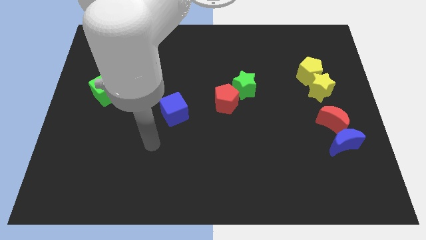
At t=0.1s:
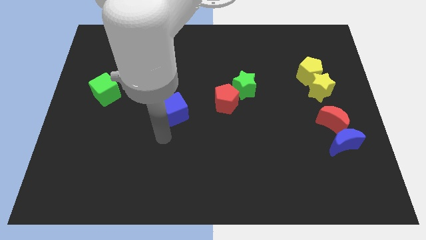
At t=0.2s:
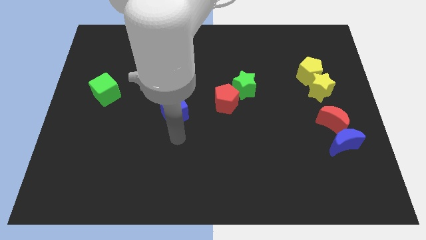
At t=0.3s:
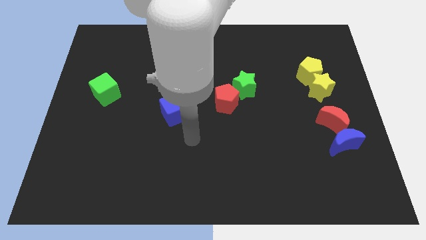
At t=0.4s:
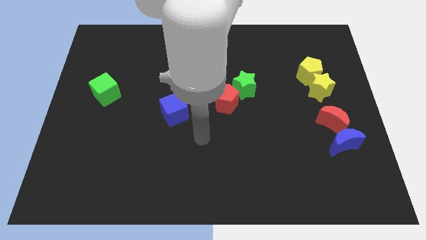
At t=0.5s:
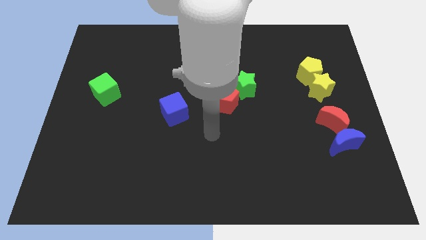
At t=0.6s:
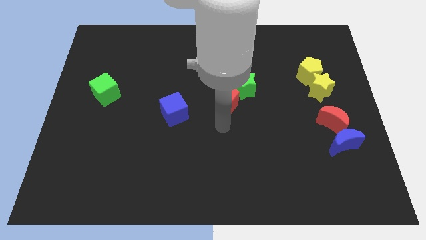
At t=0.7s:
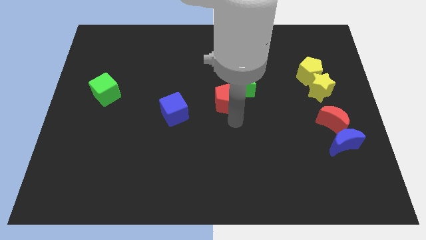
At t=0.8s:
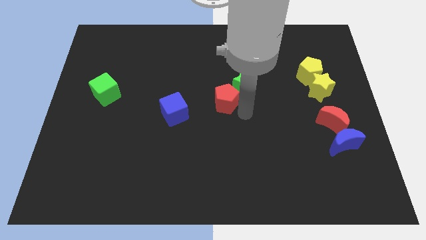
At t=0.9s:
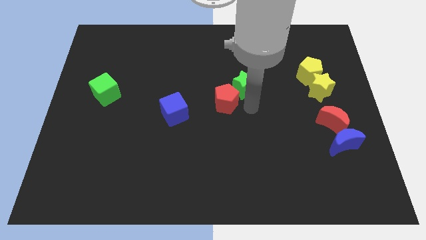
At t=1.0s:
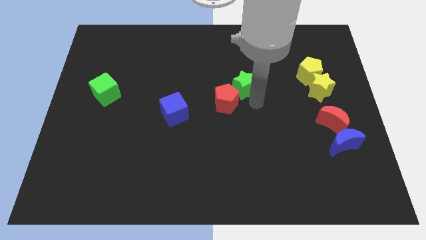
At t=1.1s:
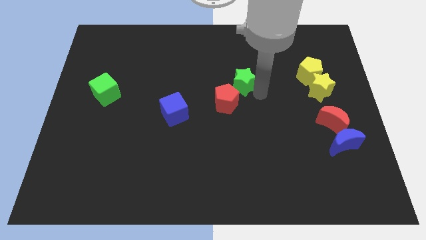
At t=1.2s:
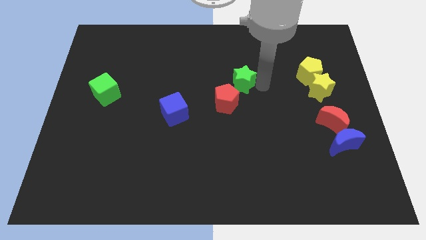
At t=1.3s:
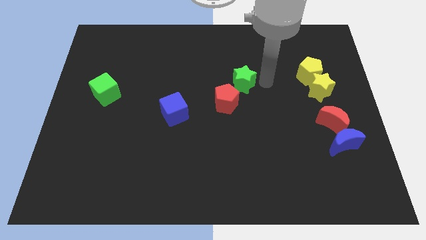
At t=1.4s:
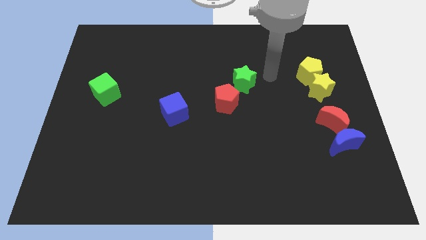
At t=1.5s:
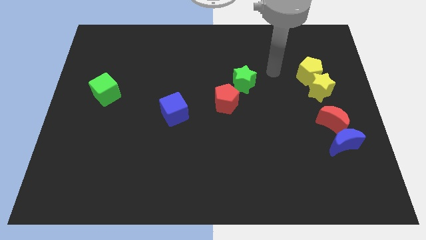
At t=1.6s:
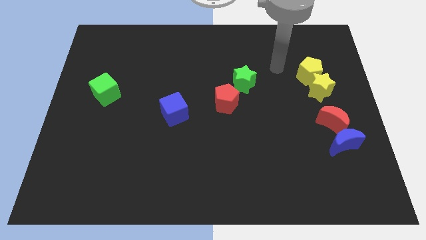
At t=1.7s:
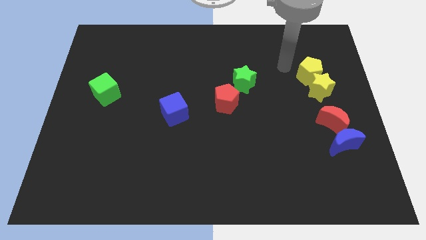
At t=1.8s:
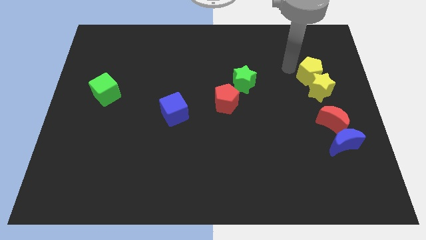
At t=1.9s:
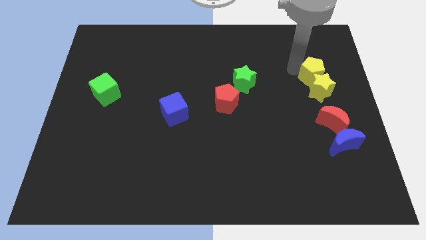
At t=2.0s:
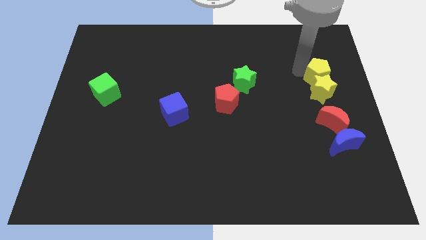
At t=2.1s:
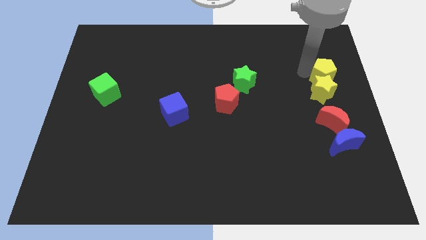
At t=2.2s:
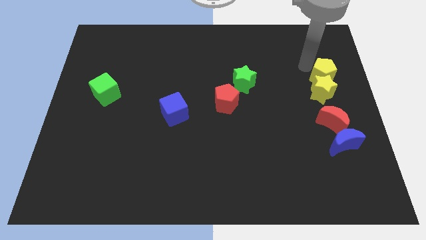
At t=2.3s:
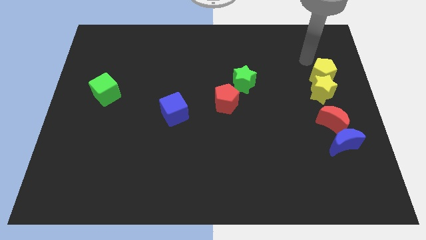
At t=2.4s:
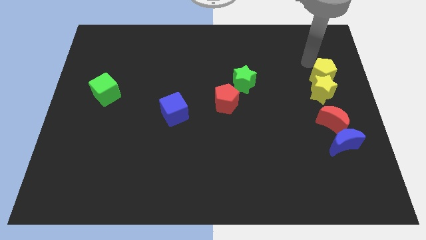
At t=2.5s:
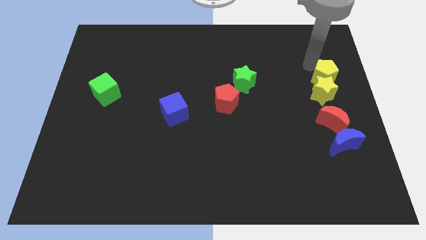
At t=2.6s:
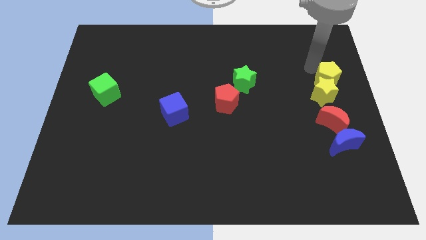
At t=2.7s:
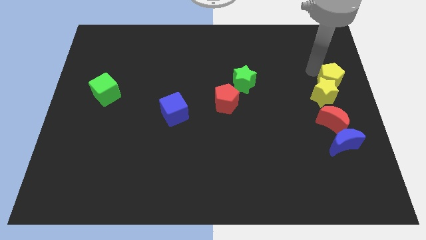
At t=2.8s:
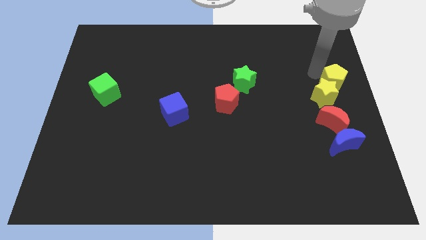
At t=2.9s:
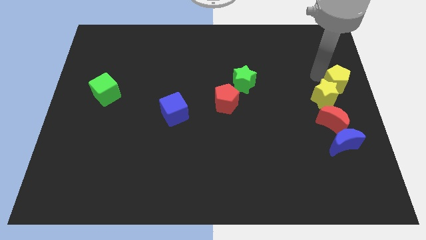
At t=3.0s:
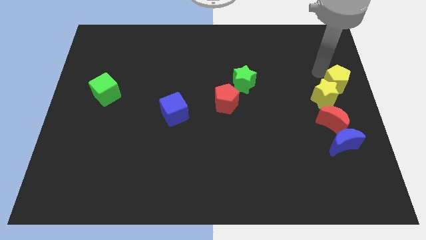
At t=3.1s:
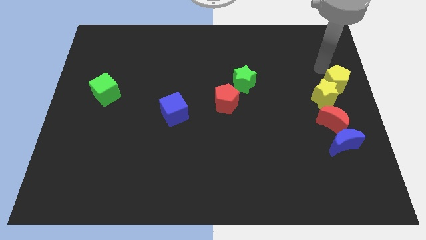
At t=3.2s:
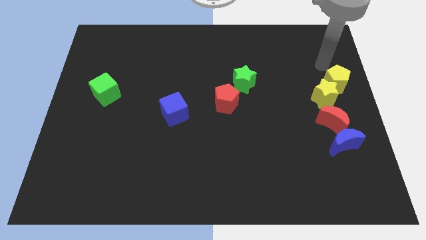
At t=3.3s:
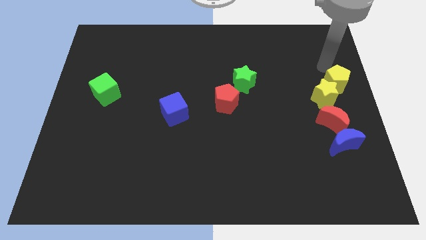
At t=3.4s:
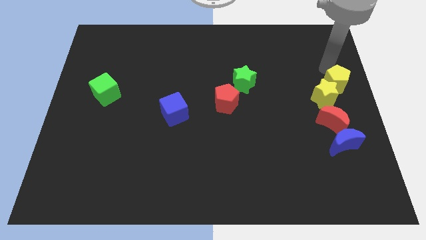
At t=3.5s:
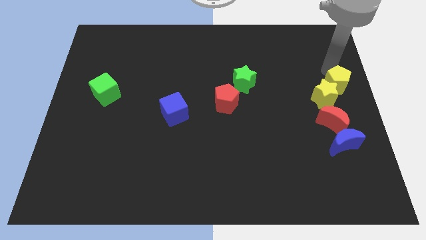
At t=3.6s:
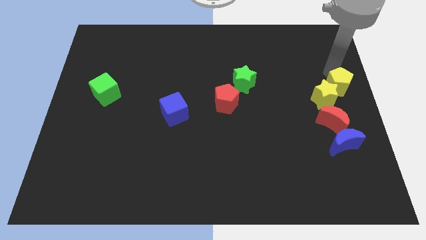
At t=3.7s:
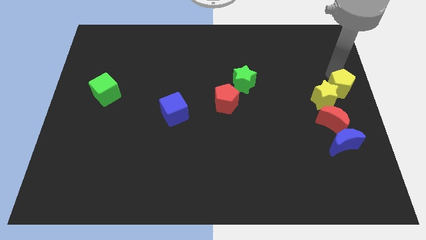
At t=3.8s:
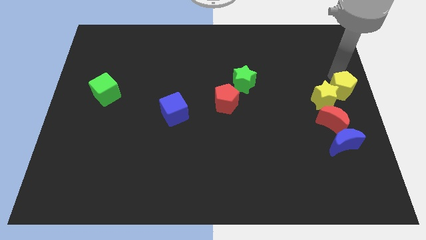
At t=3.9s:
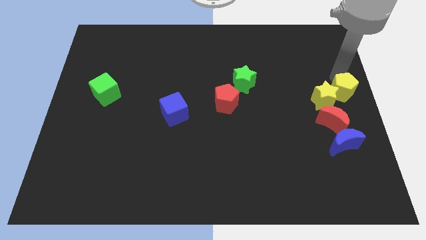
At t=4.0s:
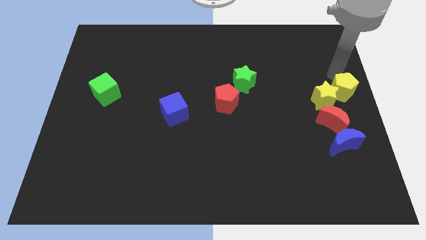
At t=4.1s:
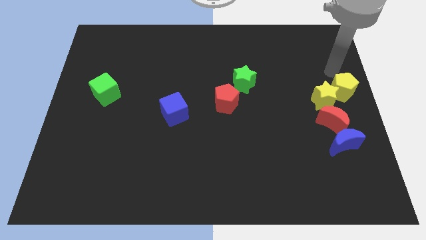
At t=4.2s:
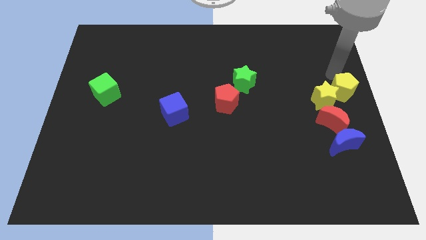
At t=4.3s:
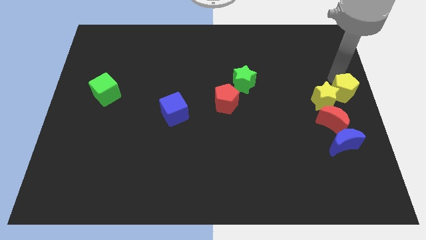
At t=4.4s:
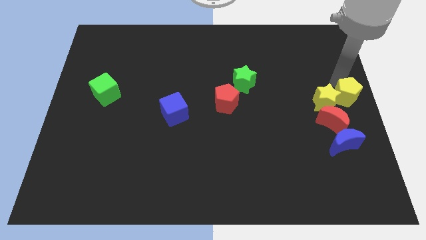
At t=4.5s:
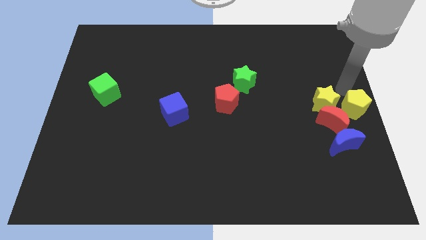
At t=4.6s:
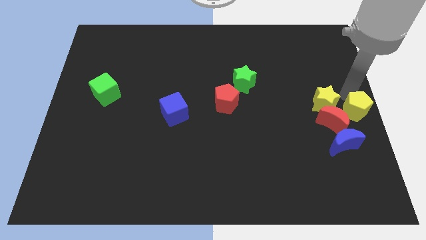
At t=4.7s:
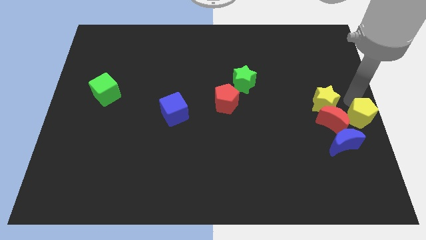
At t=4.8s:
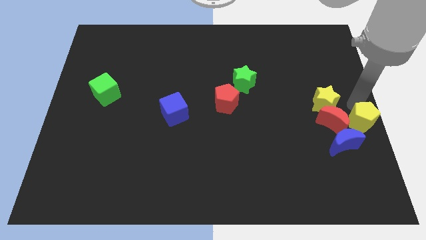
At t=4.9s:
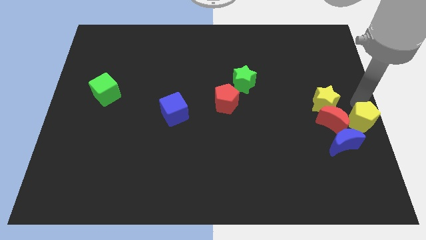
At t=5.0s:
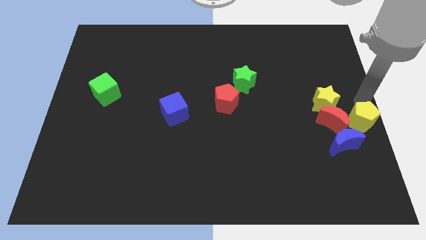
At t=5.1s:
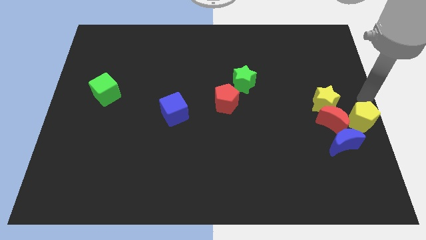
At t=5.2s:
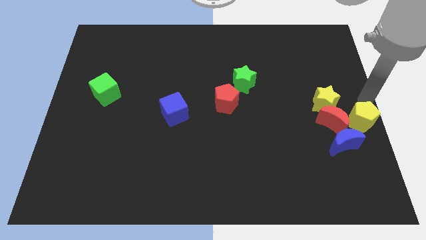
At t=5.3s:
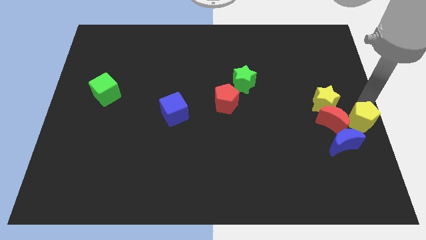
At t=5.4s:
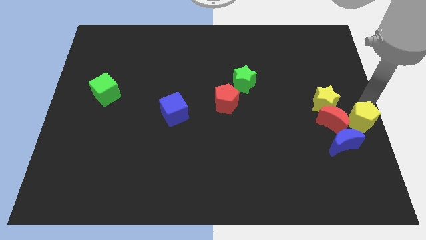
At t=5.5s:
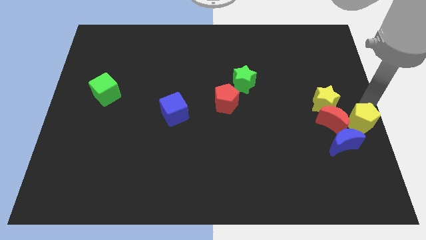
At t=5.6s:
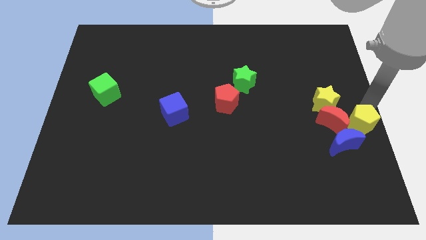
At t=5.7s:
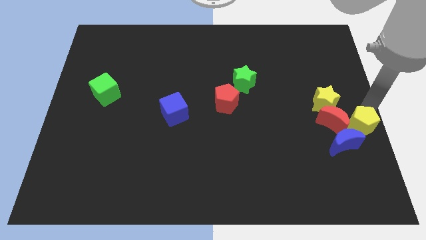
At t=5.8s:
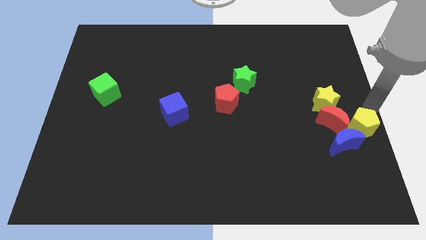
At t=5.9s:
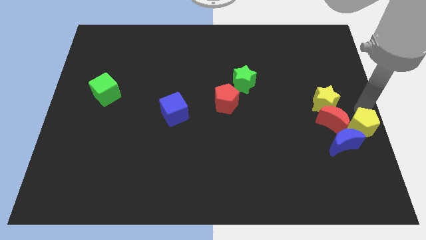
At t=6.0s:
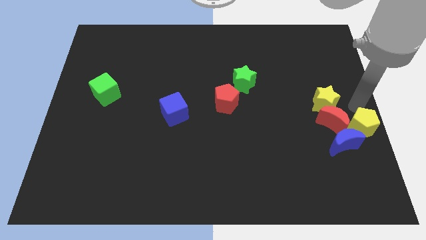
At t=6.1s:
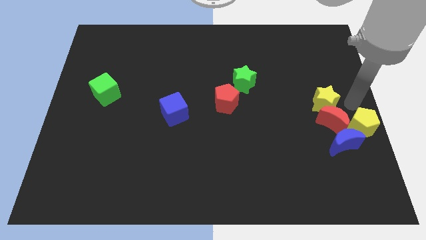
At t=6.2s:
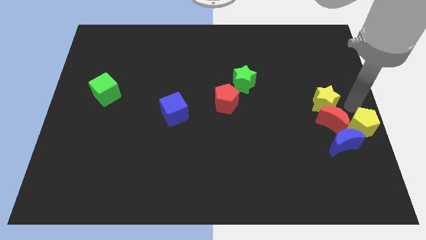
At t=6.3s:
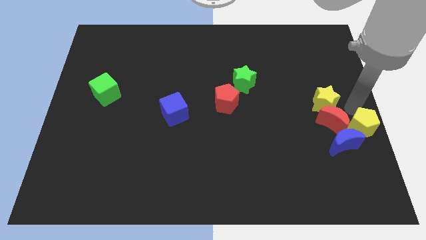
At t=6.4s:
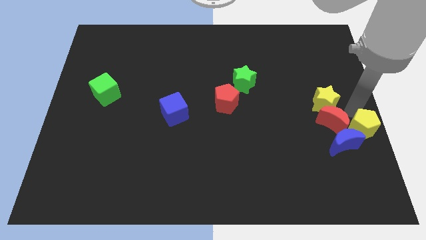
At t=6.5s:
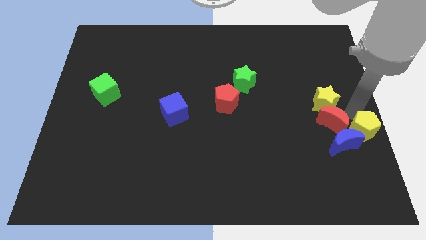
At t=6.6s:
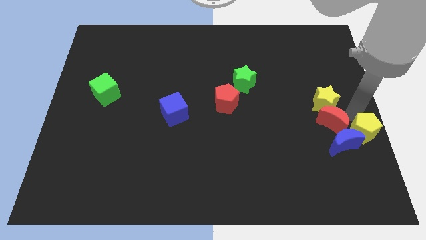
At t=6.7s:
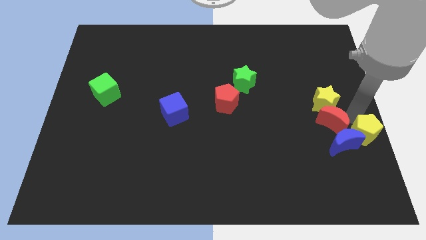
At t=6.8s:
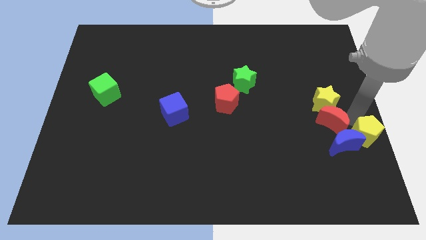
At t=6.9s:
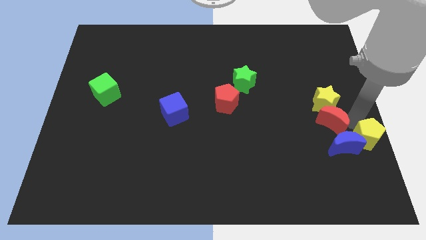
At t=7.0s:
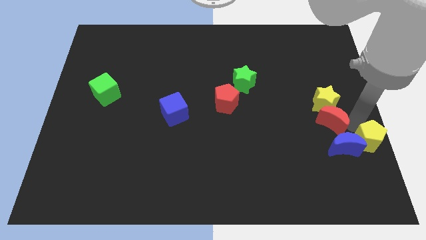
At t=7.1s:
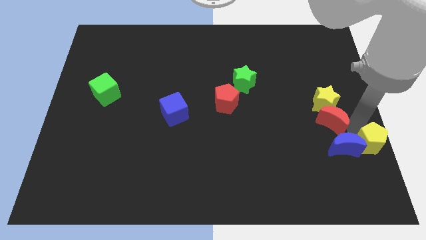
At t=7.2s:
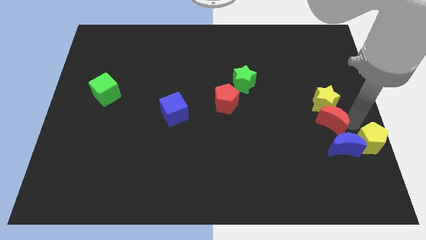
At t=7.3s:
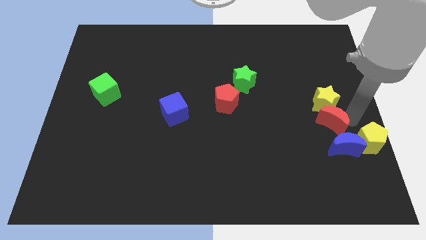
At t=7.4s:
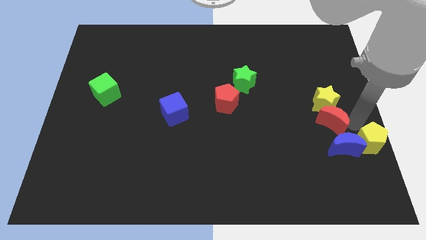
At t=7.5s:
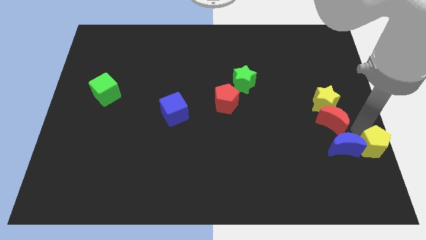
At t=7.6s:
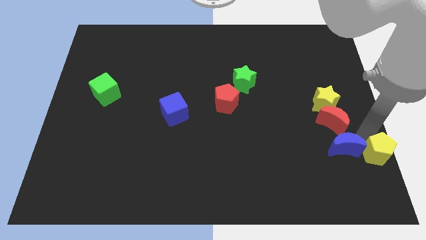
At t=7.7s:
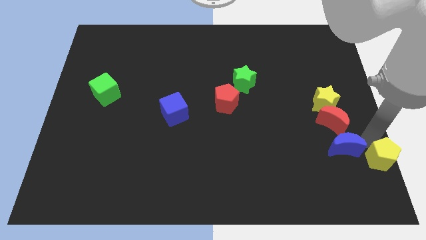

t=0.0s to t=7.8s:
slide the yellow pentagon to the bottom right corner
